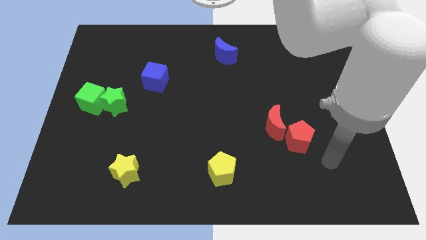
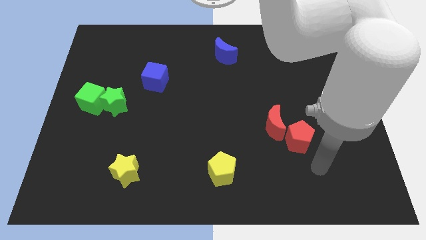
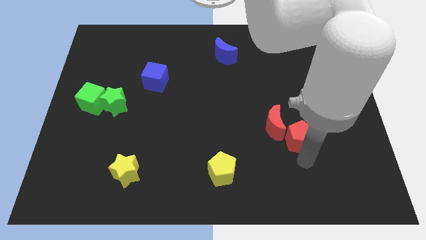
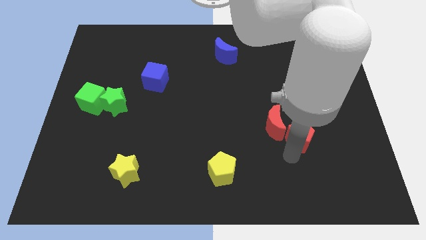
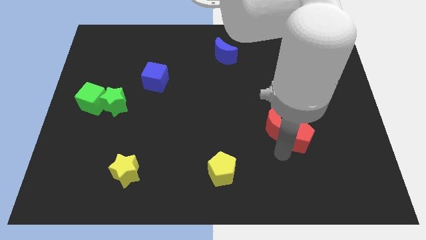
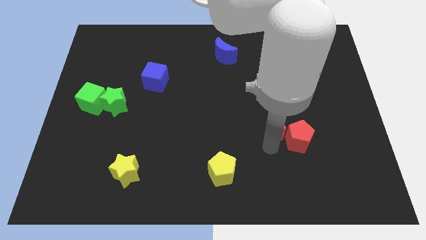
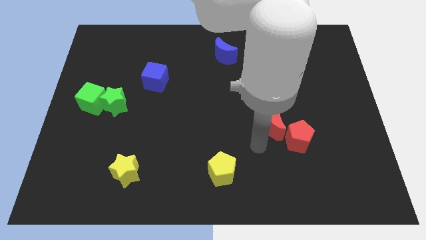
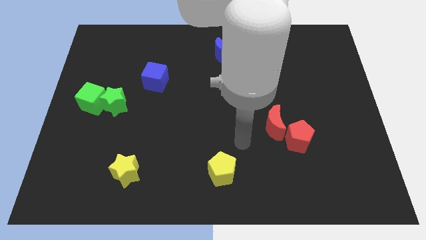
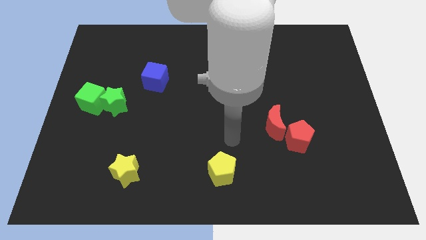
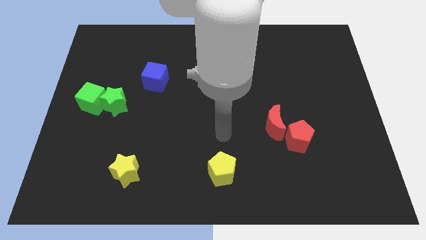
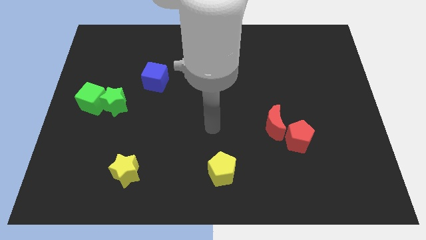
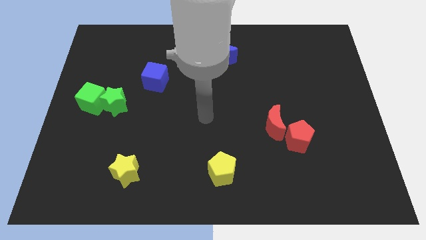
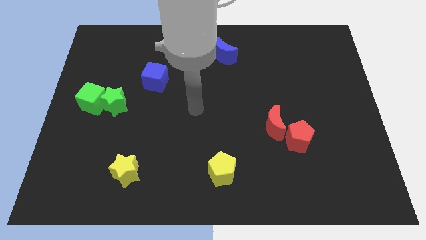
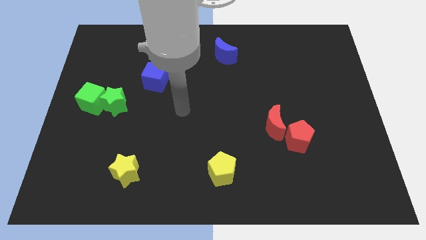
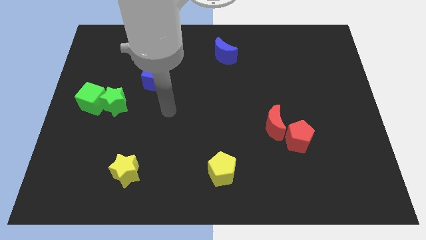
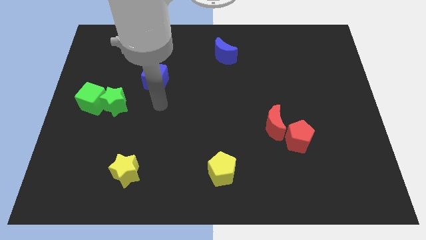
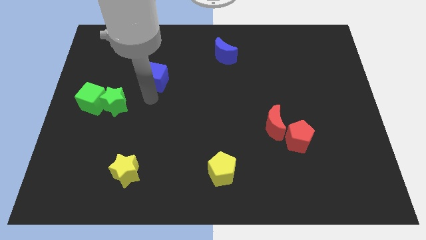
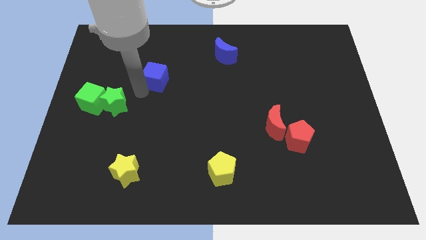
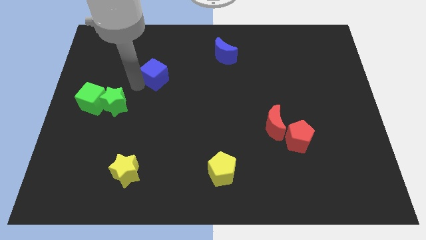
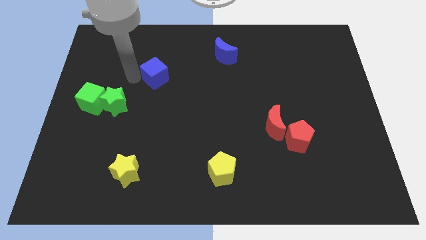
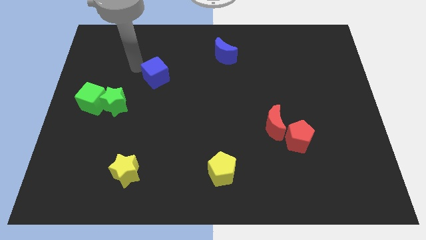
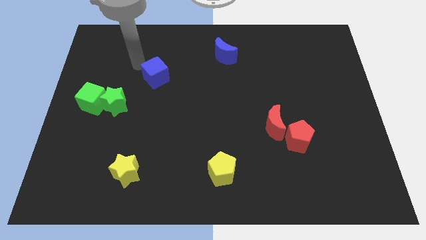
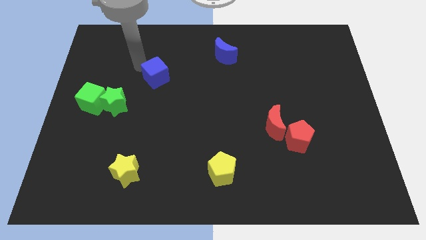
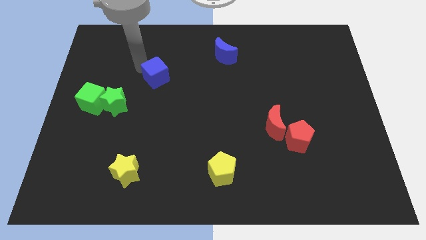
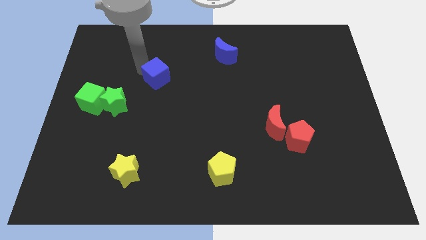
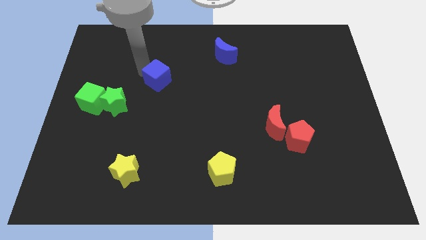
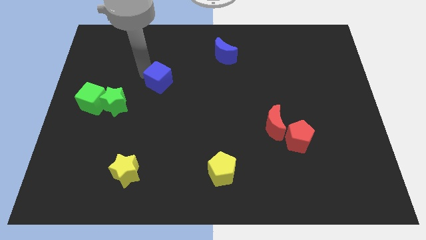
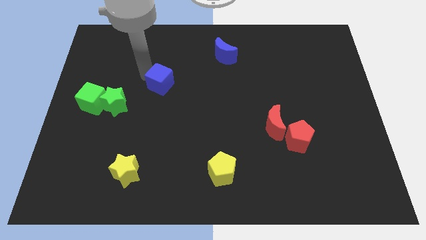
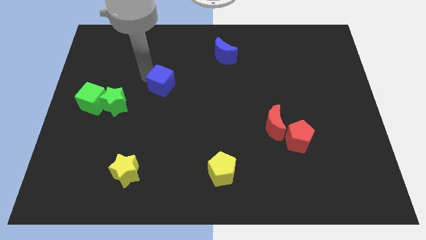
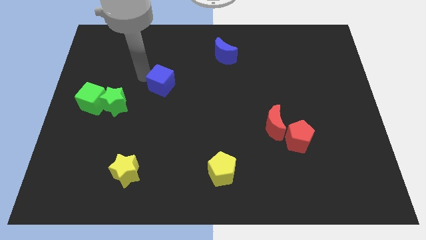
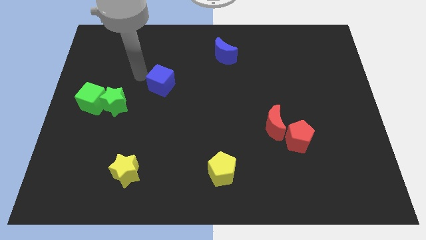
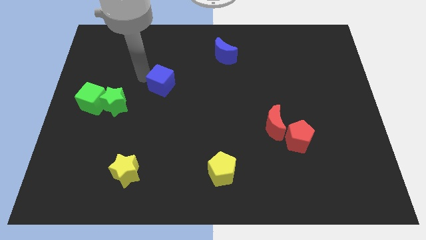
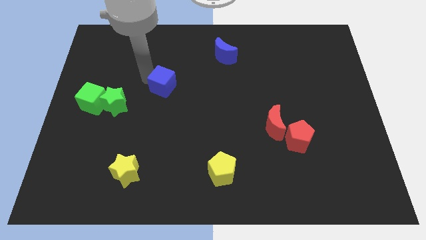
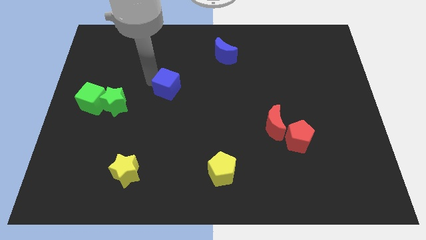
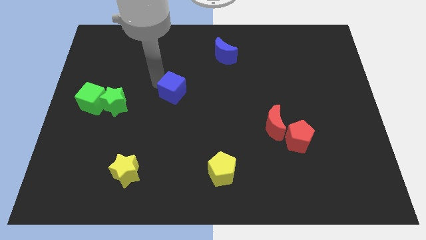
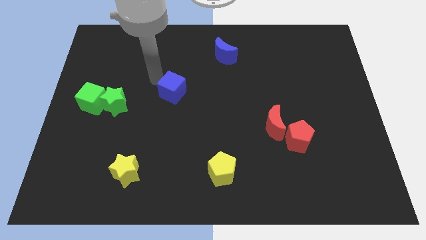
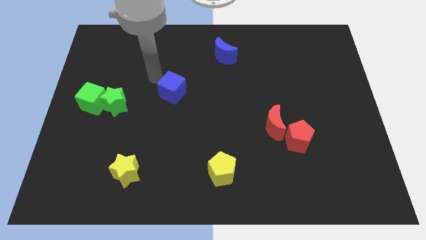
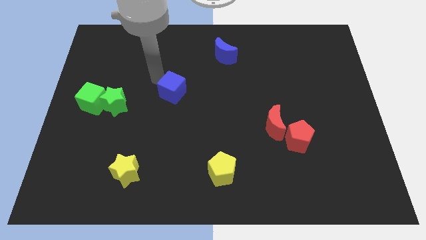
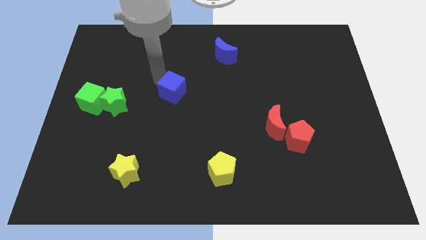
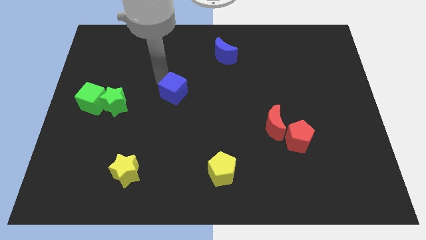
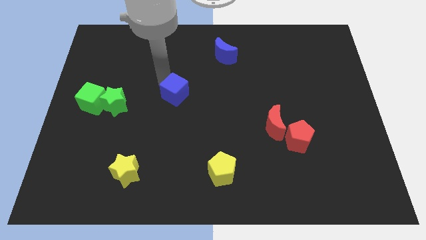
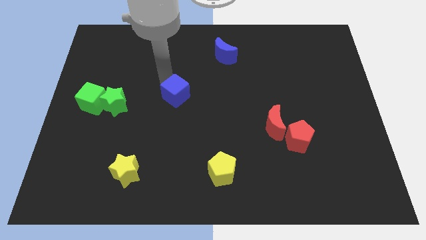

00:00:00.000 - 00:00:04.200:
slightly slide the blue cube diagonally downwards and right

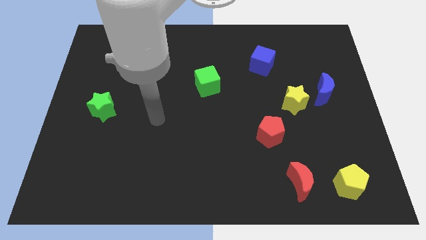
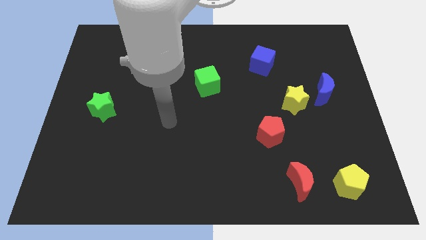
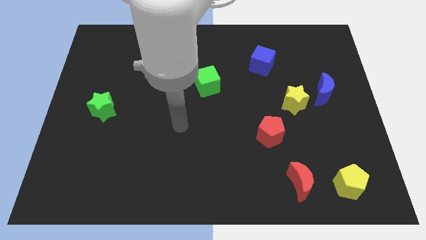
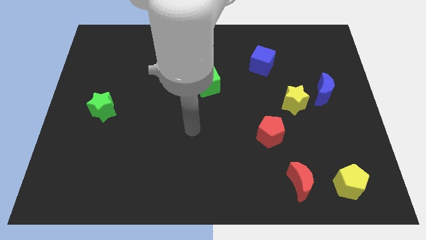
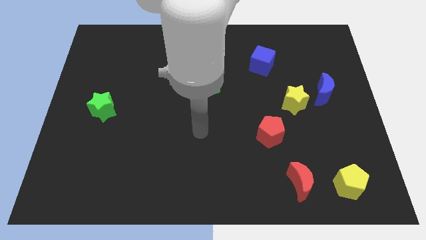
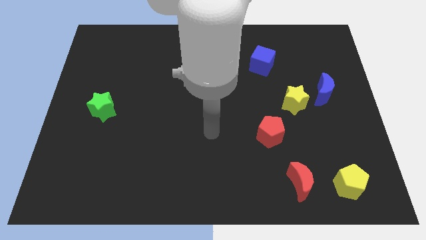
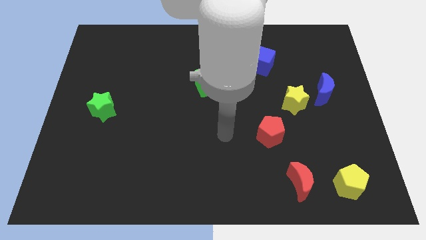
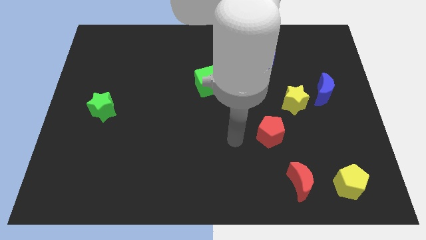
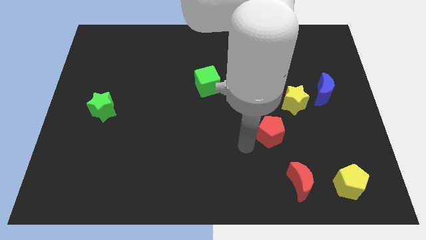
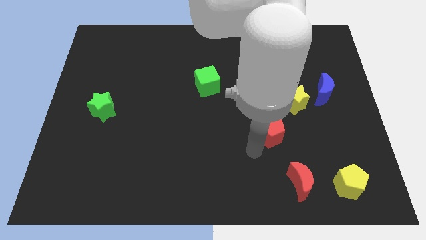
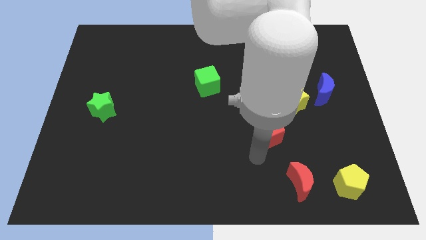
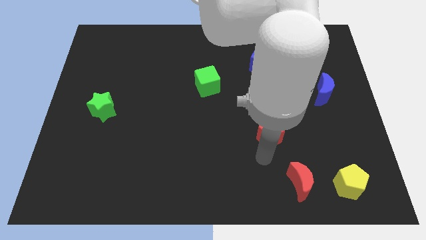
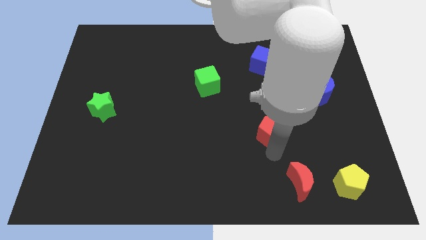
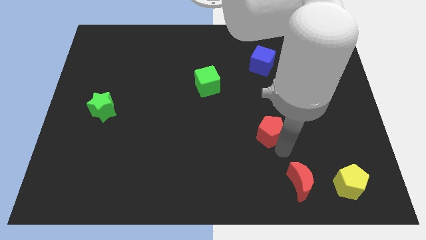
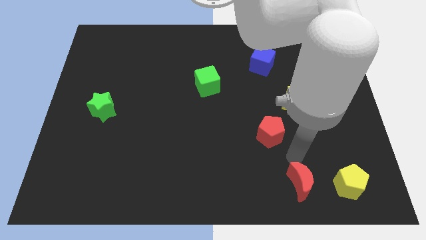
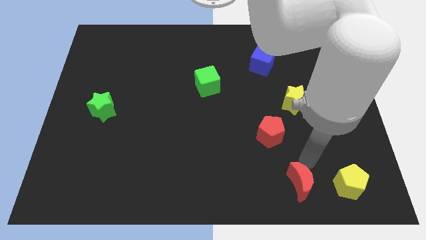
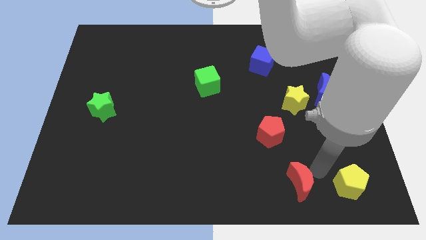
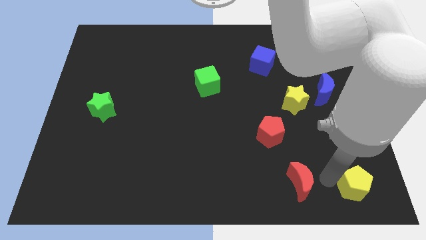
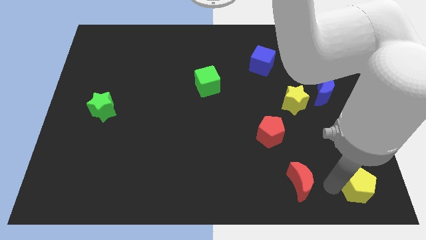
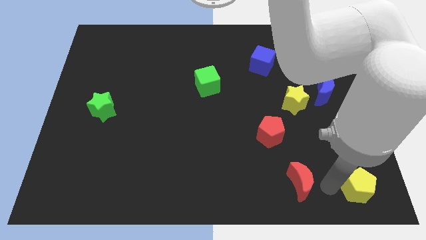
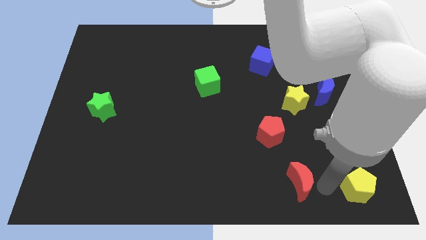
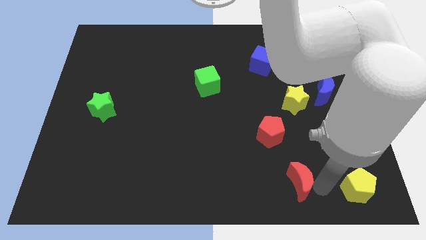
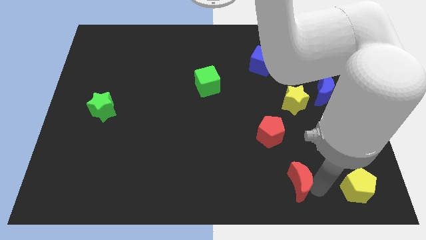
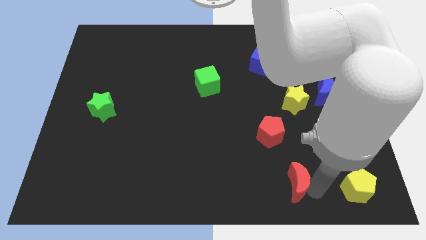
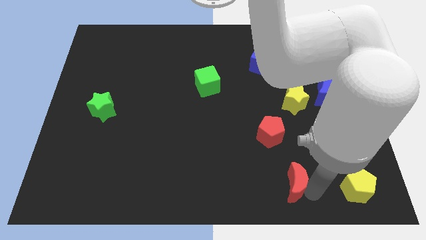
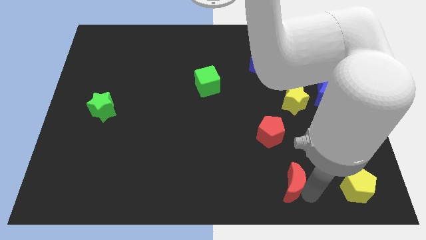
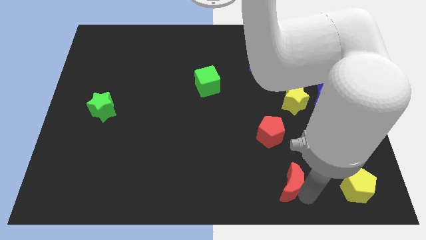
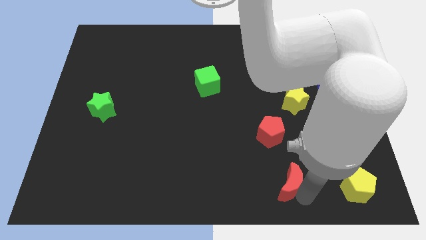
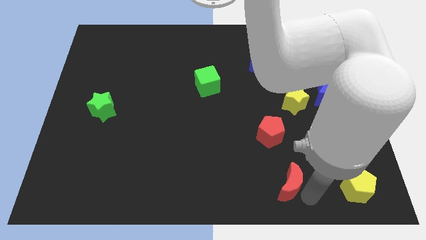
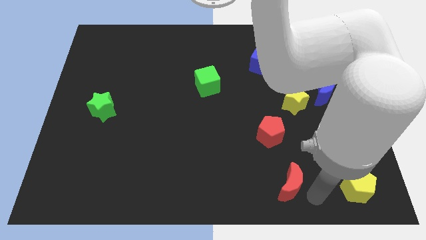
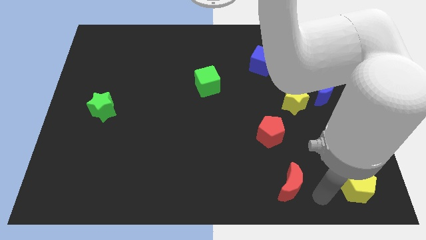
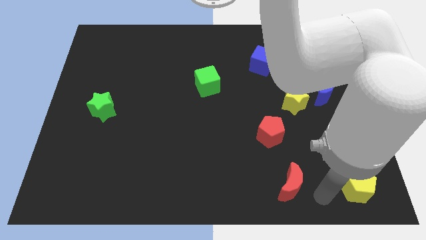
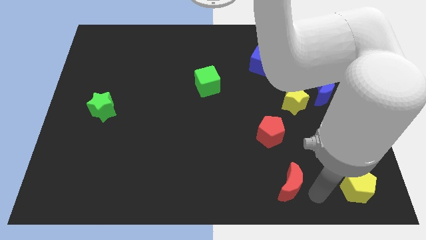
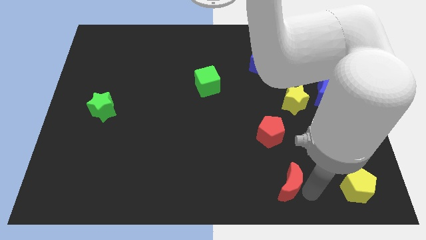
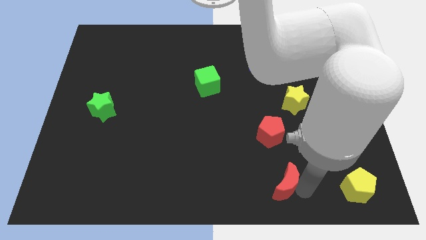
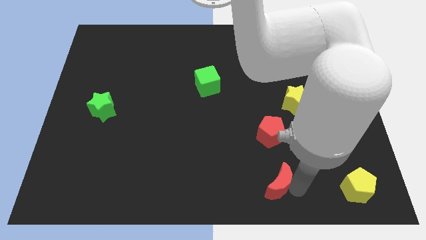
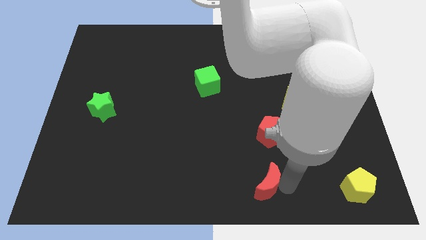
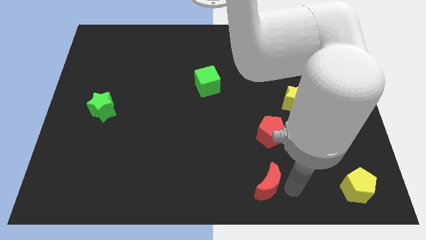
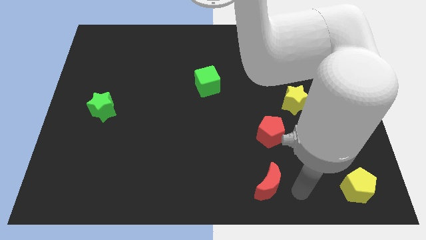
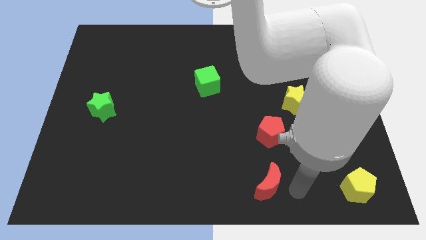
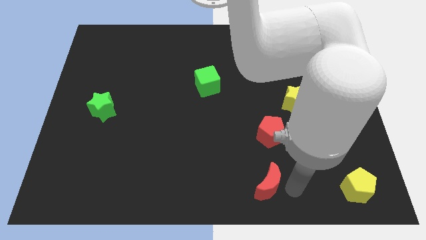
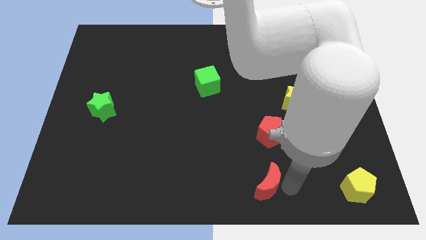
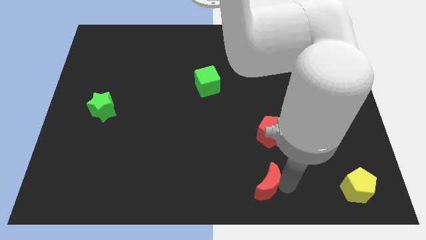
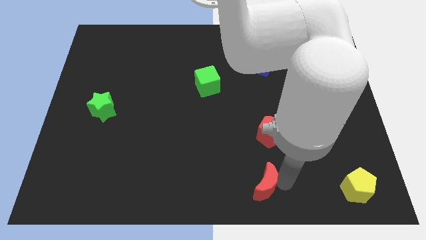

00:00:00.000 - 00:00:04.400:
slightly move the red moon to the left
